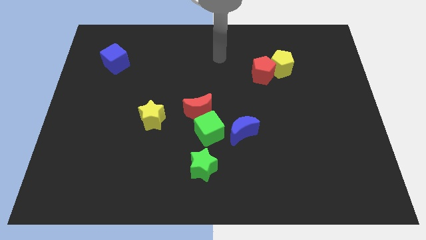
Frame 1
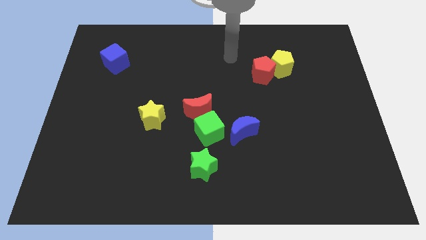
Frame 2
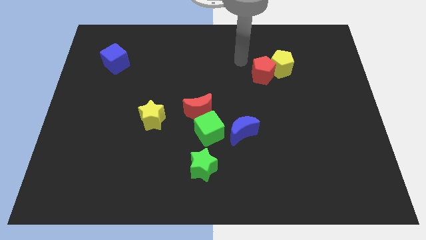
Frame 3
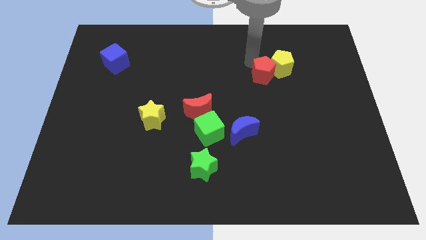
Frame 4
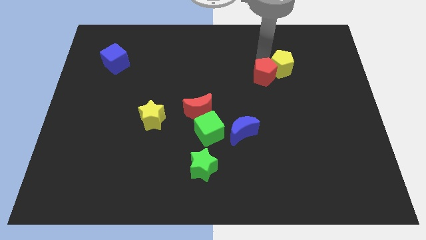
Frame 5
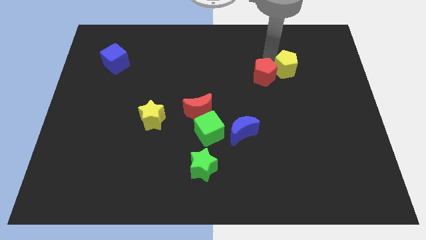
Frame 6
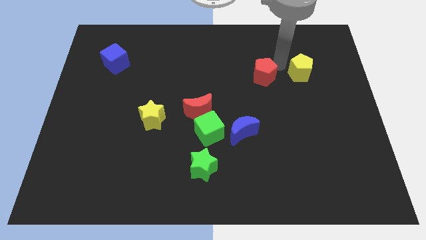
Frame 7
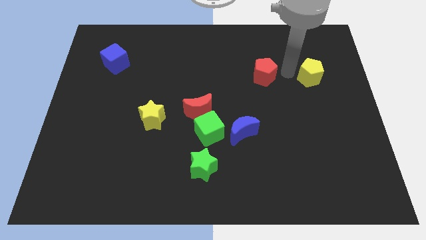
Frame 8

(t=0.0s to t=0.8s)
pull the red pentagon apart from the yellow pentagon

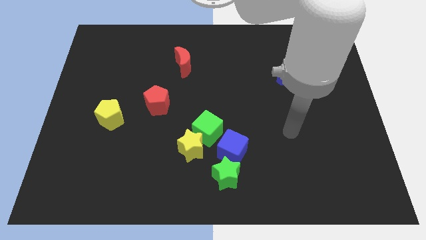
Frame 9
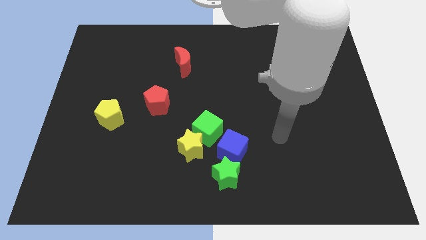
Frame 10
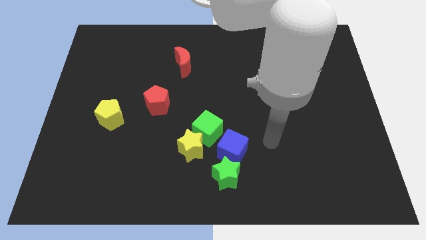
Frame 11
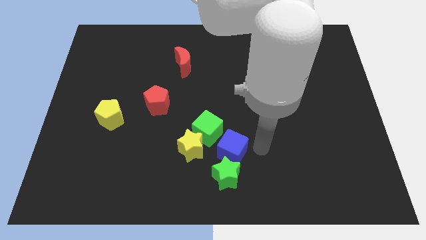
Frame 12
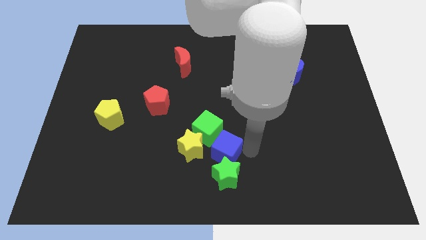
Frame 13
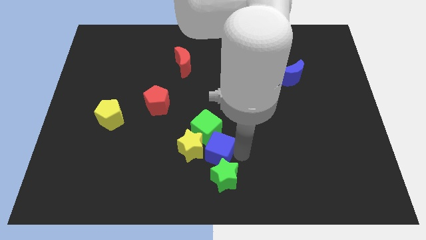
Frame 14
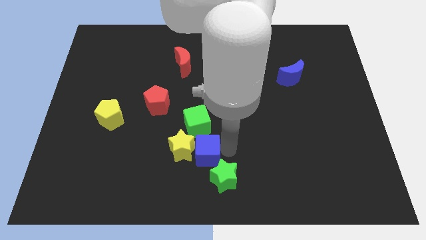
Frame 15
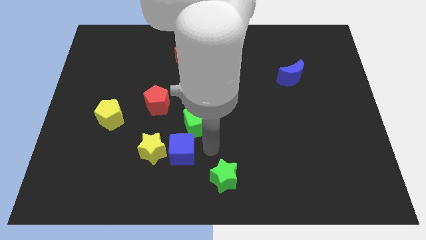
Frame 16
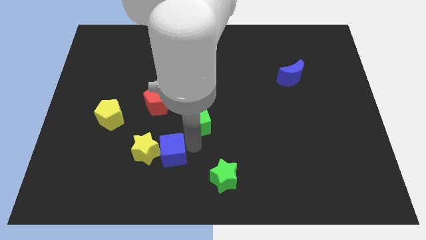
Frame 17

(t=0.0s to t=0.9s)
separate the green cube from the yellow star and blue cube

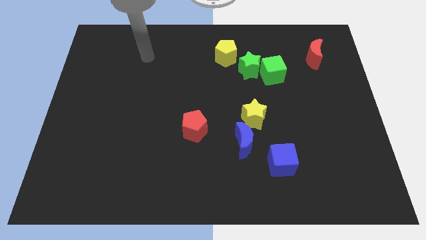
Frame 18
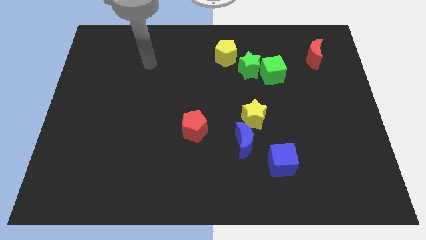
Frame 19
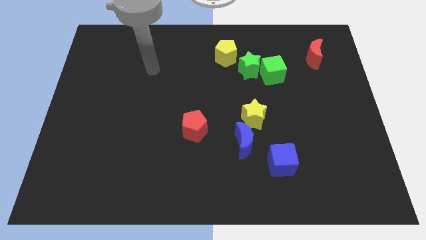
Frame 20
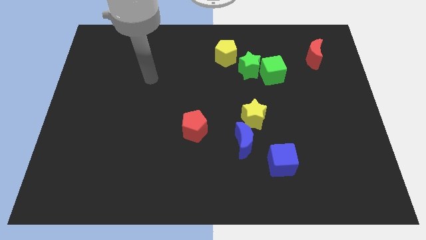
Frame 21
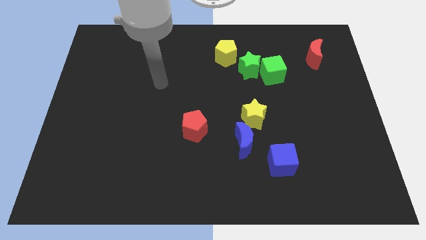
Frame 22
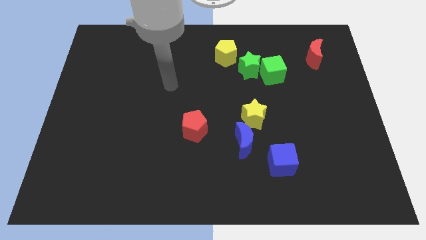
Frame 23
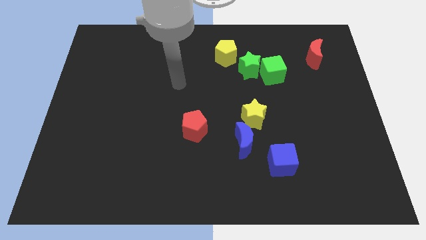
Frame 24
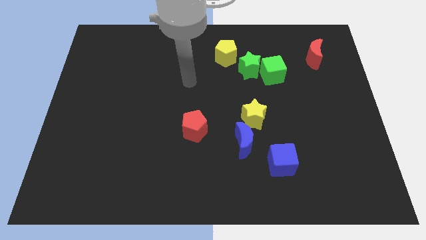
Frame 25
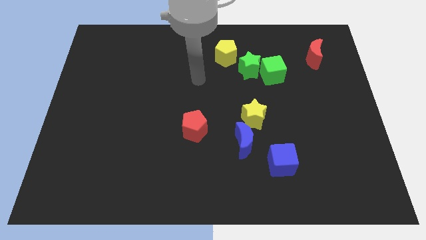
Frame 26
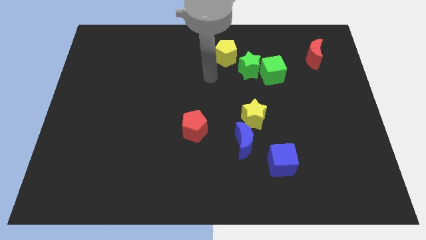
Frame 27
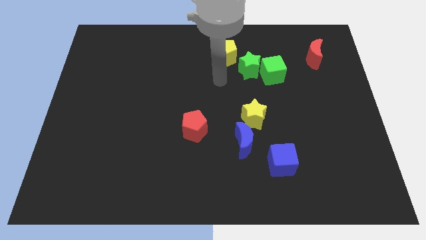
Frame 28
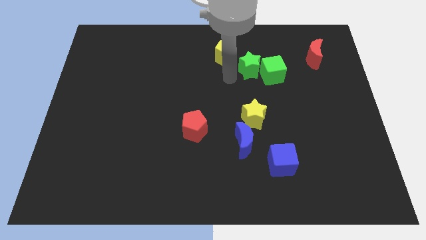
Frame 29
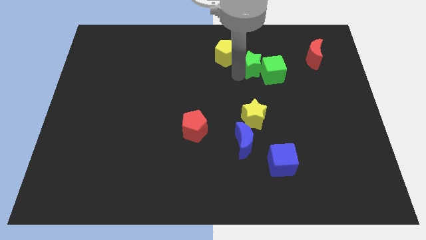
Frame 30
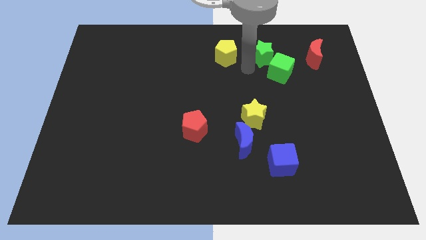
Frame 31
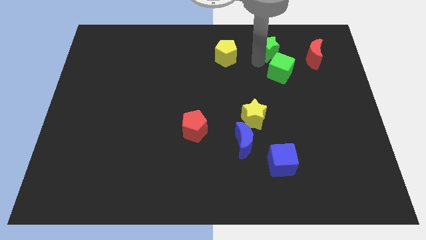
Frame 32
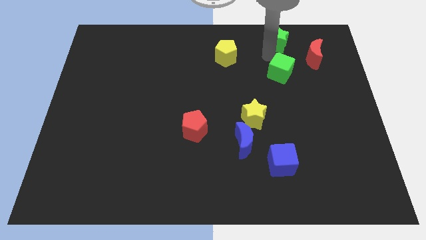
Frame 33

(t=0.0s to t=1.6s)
move the green cube away from the green star

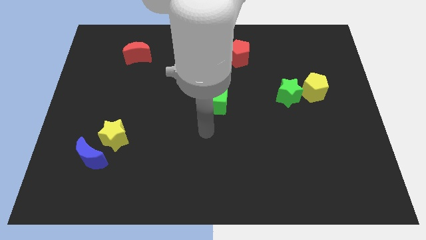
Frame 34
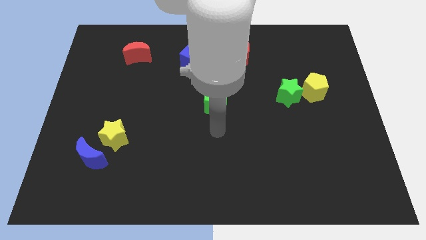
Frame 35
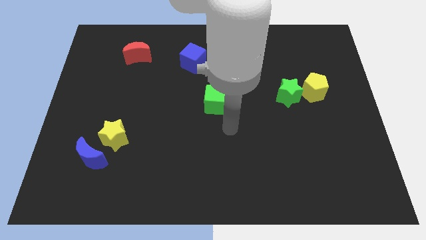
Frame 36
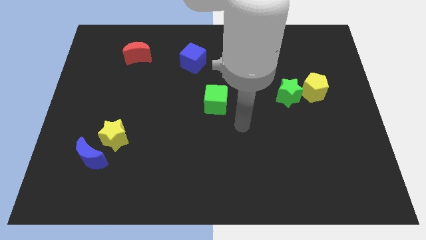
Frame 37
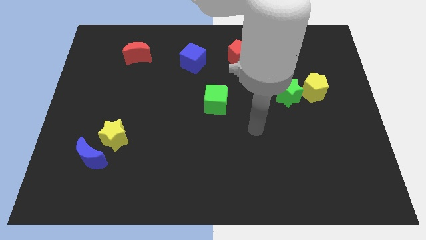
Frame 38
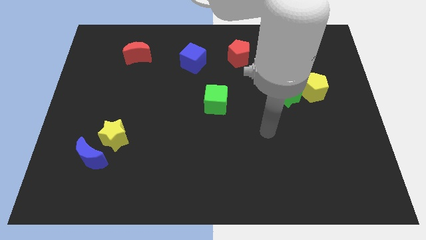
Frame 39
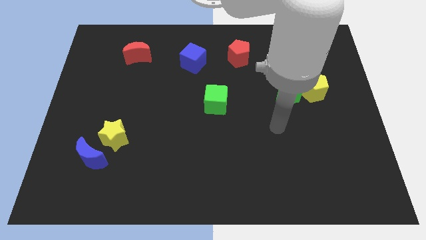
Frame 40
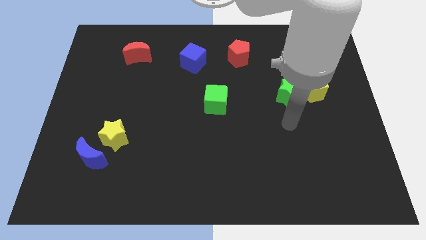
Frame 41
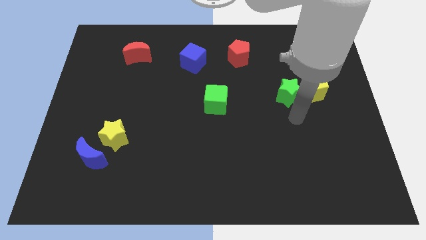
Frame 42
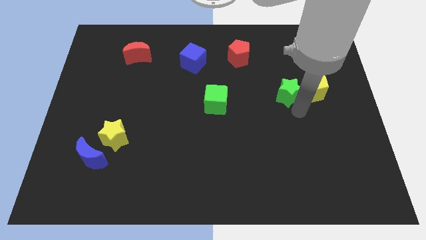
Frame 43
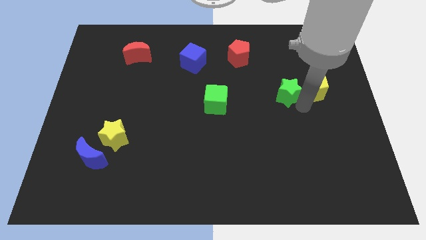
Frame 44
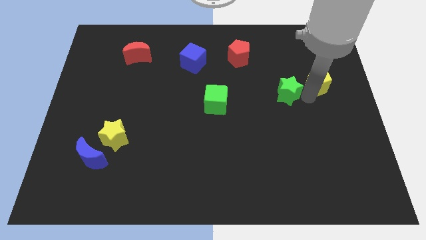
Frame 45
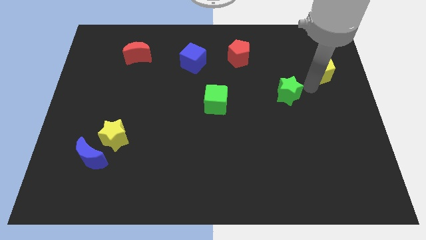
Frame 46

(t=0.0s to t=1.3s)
move the green star away from the yellow pentagon

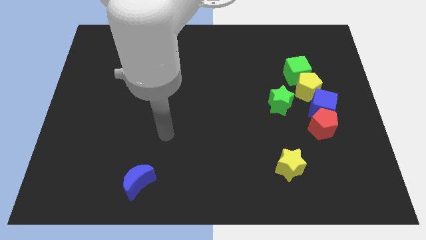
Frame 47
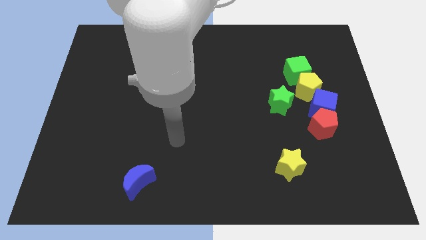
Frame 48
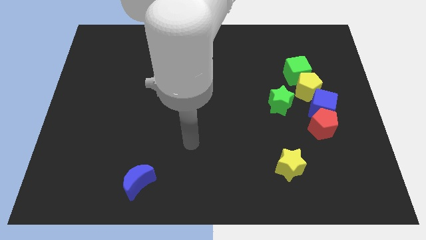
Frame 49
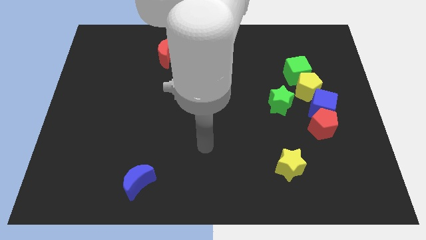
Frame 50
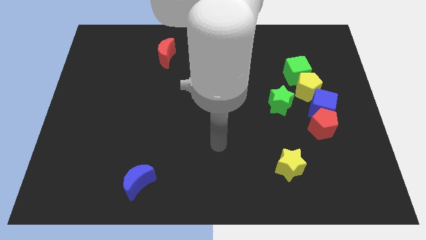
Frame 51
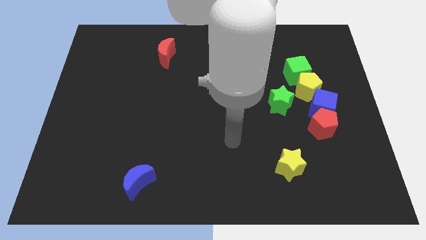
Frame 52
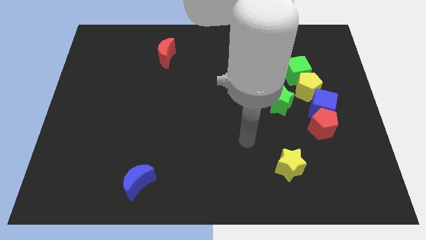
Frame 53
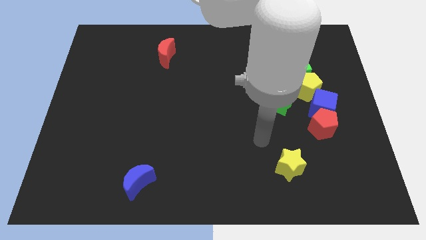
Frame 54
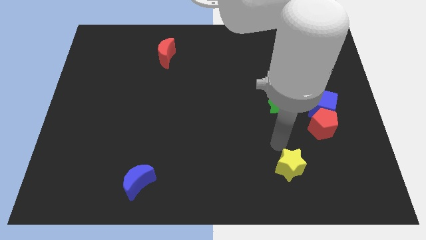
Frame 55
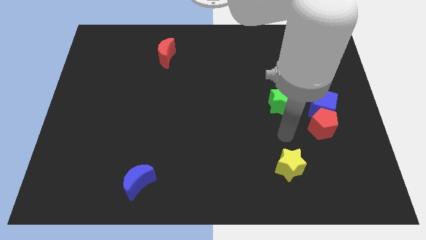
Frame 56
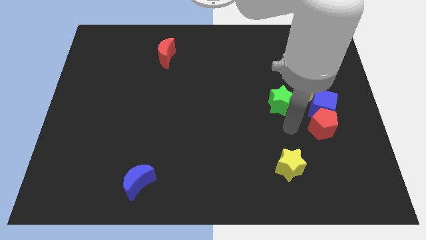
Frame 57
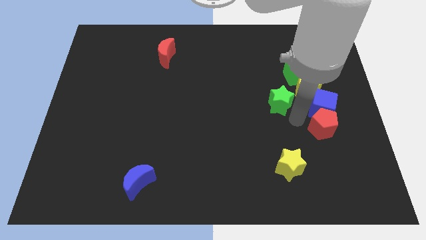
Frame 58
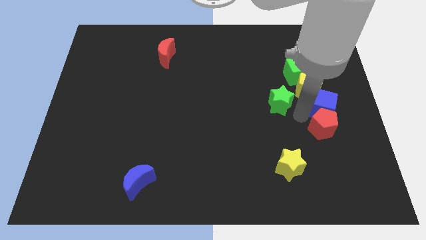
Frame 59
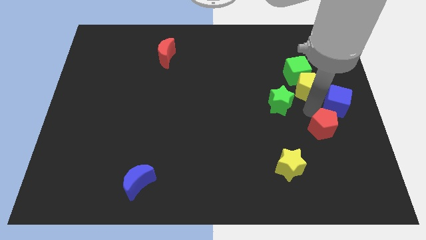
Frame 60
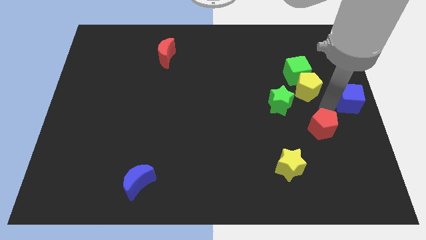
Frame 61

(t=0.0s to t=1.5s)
pull the red pentagon apart from the blue cube

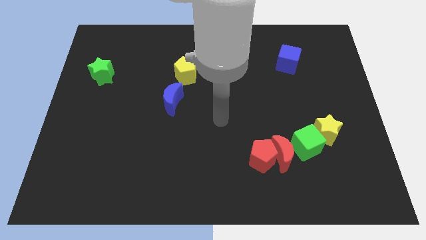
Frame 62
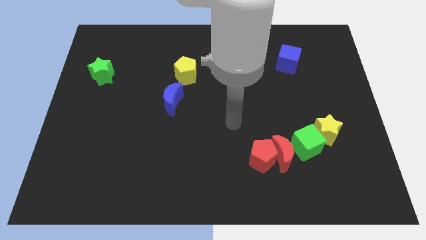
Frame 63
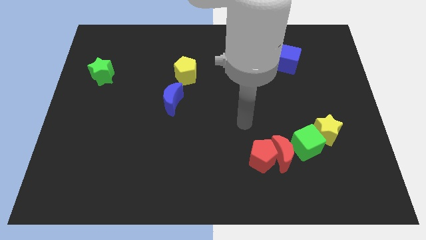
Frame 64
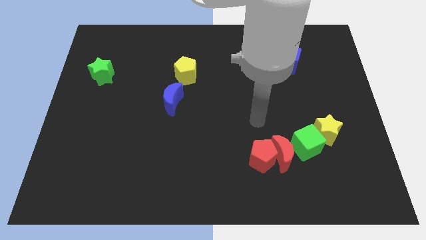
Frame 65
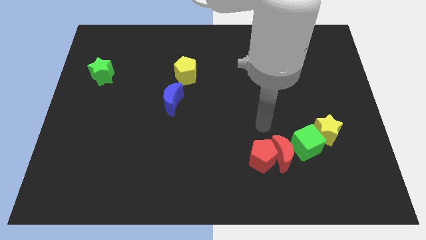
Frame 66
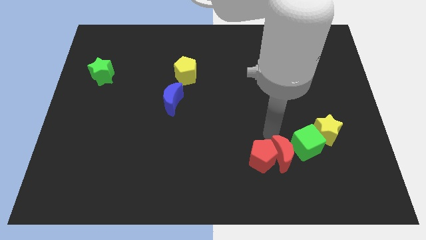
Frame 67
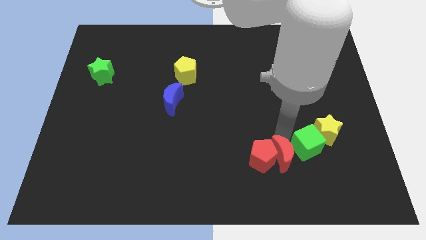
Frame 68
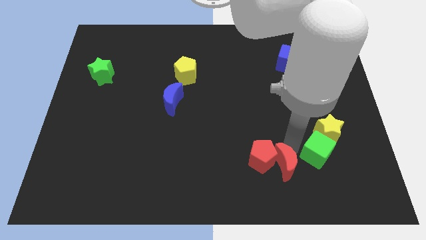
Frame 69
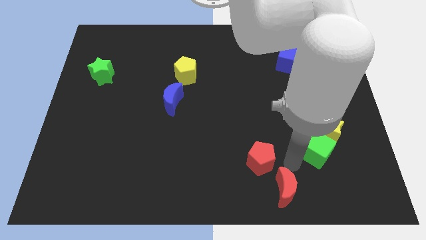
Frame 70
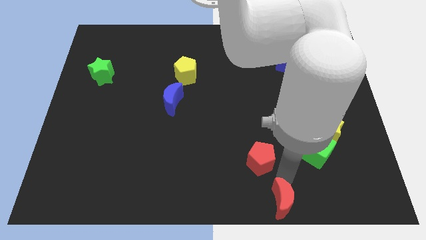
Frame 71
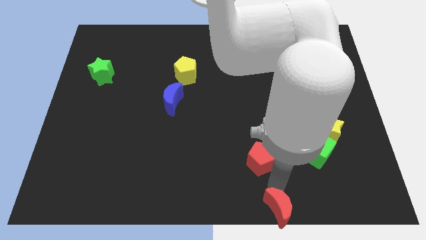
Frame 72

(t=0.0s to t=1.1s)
pull the red pentagon apart from the red moon

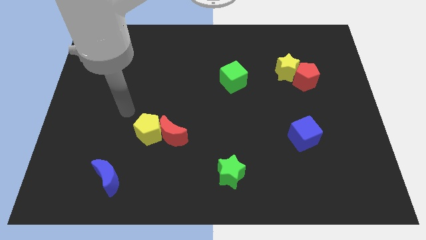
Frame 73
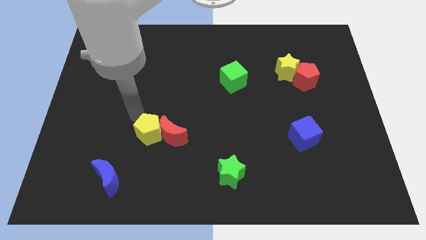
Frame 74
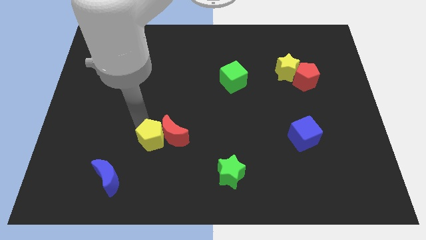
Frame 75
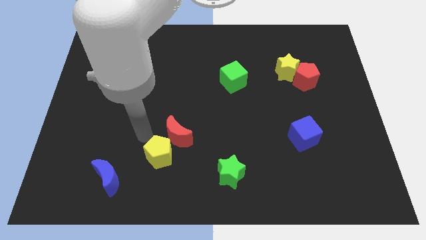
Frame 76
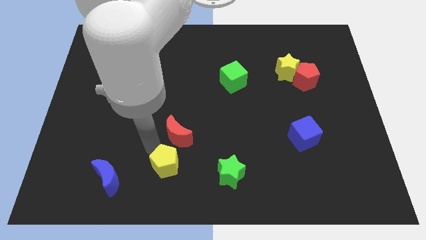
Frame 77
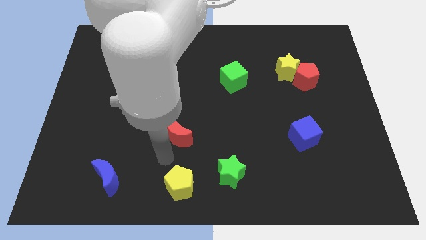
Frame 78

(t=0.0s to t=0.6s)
move the red moon away from the yellow pentagon

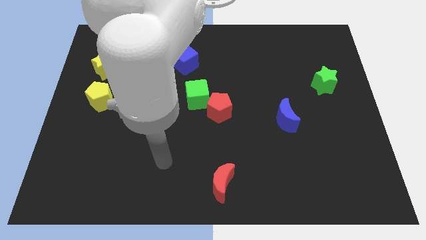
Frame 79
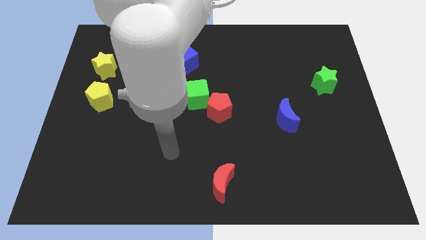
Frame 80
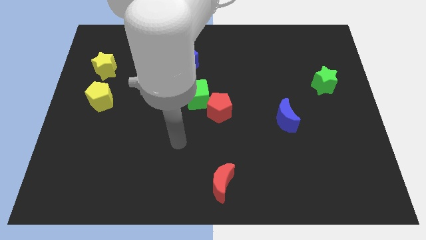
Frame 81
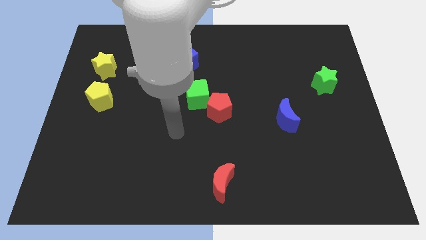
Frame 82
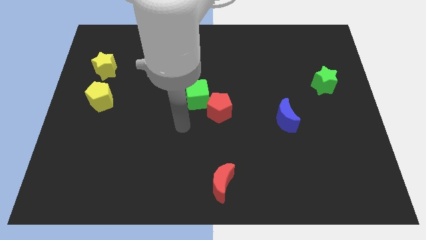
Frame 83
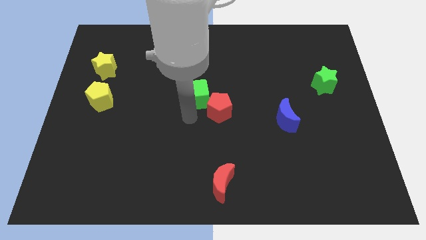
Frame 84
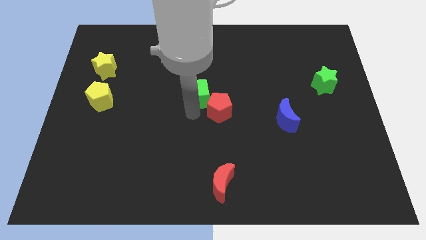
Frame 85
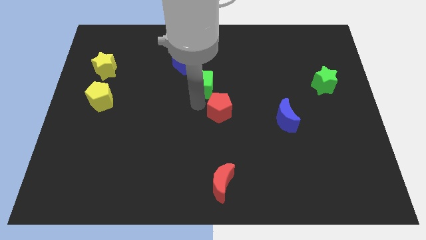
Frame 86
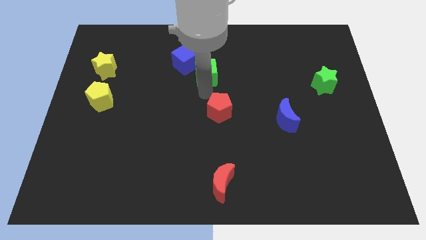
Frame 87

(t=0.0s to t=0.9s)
pull the red pentagon apart from the green cube

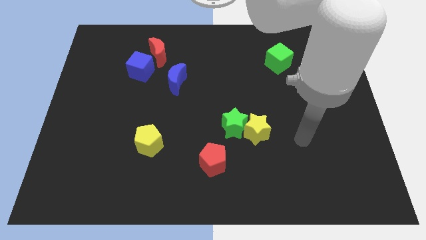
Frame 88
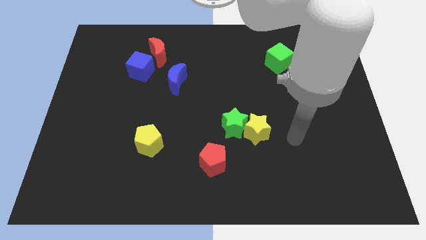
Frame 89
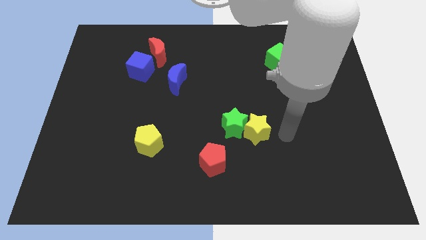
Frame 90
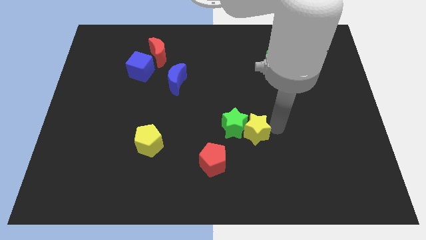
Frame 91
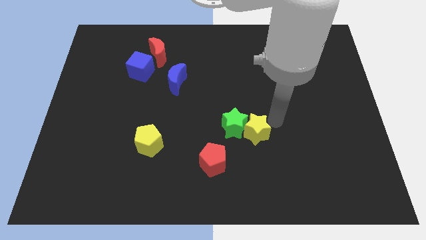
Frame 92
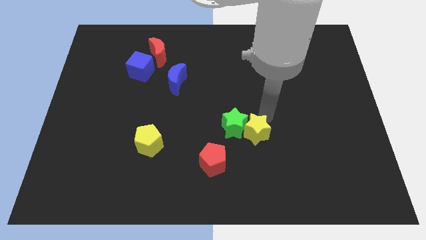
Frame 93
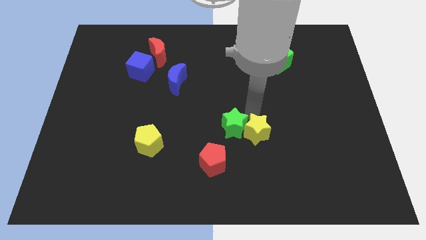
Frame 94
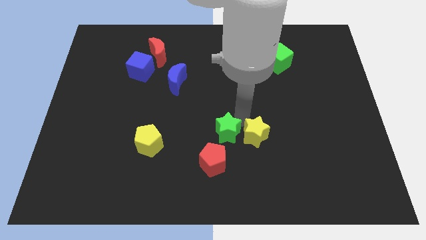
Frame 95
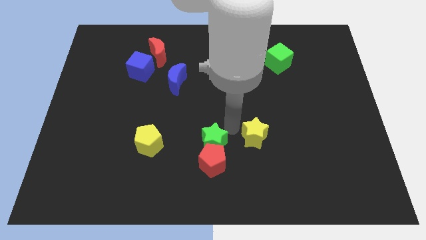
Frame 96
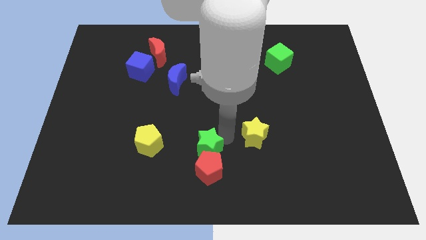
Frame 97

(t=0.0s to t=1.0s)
pull the yellow star apart from the green star
